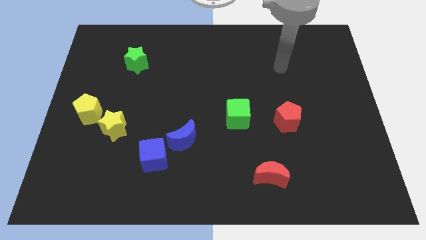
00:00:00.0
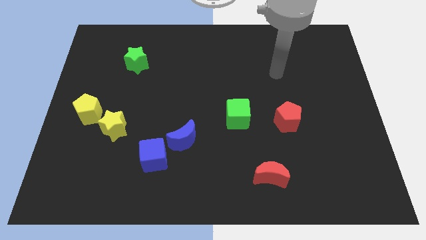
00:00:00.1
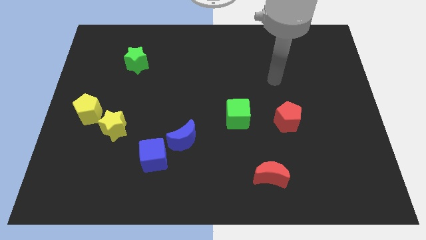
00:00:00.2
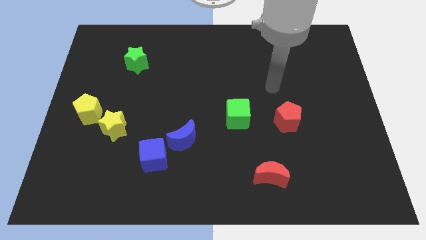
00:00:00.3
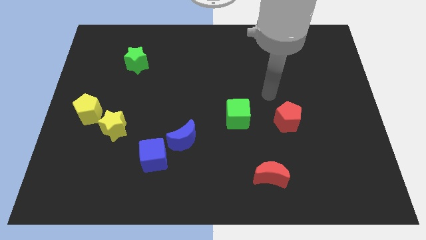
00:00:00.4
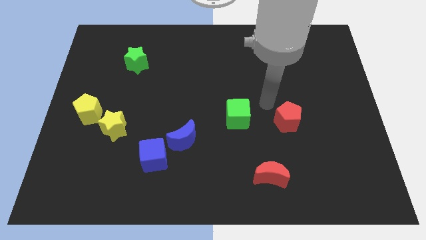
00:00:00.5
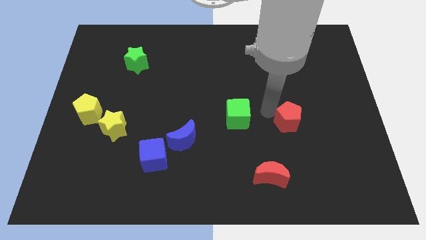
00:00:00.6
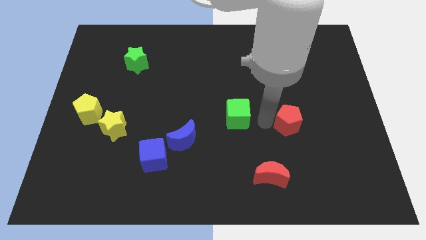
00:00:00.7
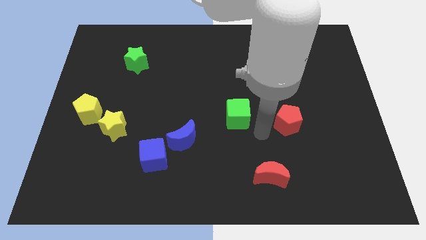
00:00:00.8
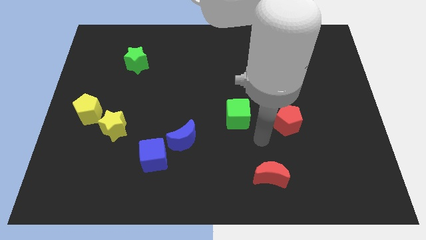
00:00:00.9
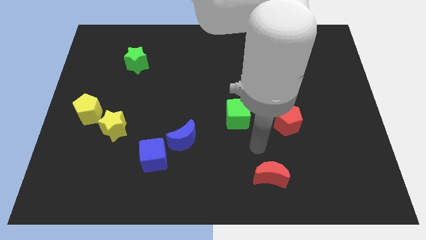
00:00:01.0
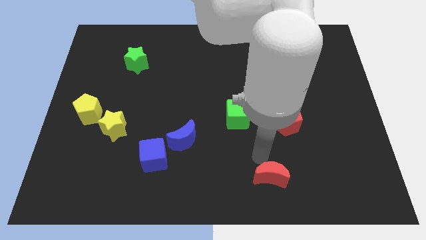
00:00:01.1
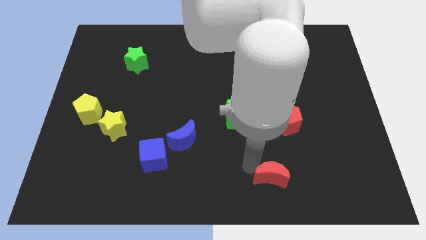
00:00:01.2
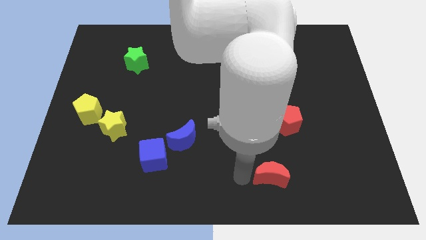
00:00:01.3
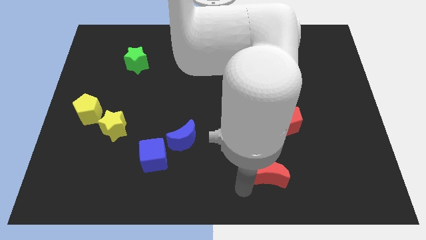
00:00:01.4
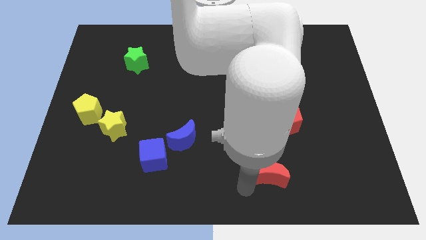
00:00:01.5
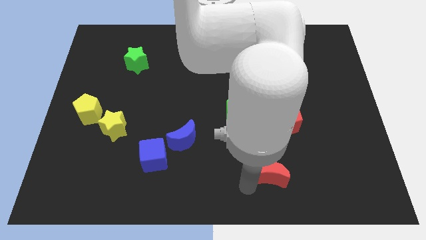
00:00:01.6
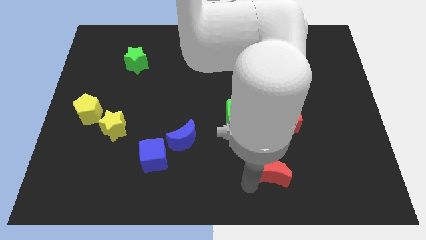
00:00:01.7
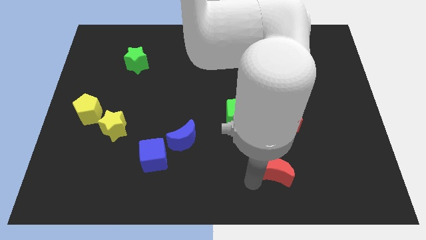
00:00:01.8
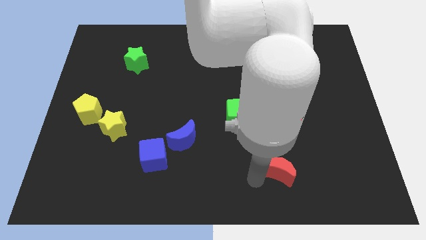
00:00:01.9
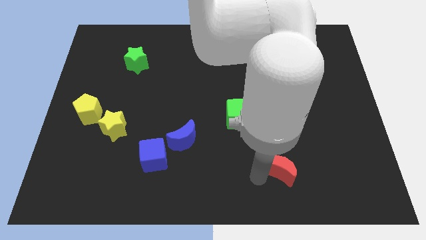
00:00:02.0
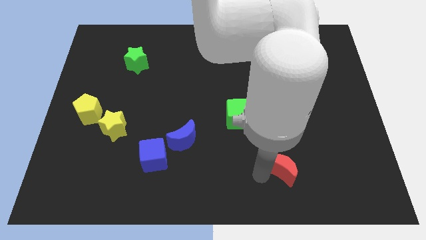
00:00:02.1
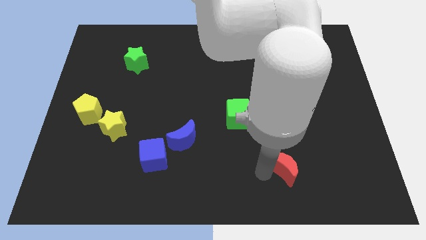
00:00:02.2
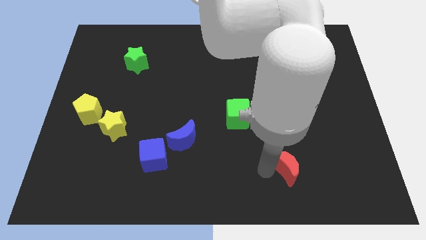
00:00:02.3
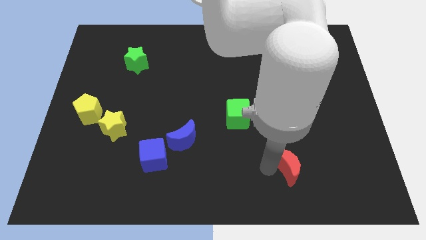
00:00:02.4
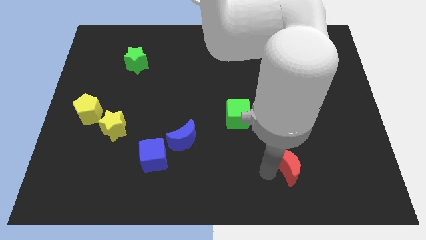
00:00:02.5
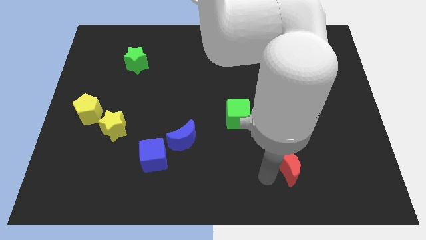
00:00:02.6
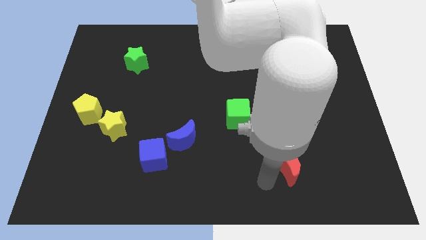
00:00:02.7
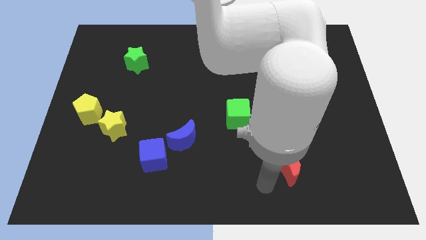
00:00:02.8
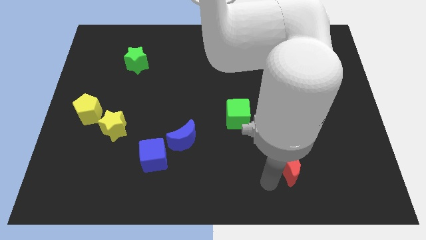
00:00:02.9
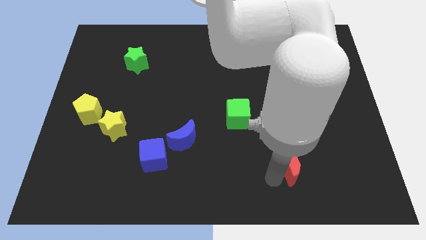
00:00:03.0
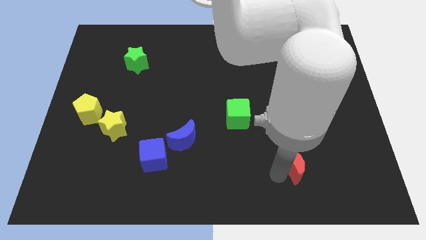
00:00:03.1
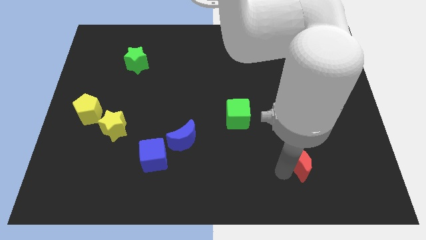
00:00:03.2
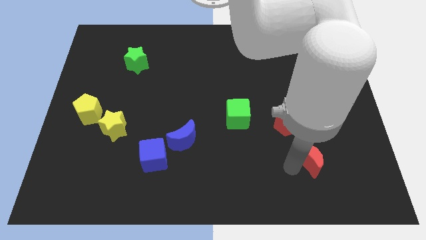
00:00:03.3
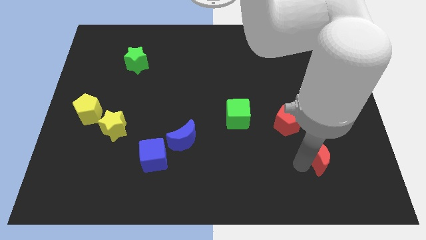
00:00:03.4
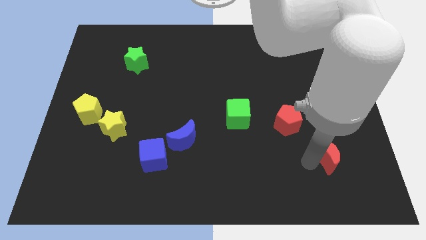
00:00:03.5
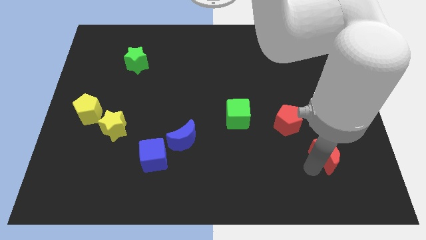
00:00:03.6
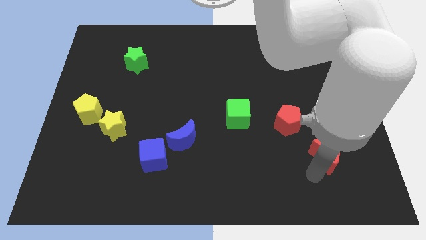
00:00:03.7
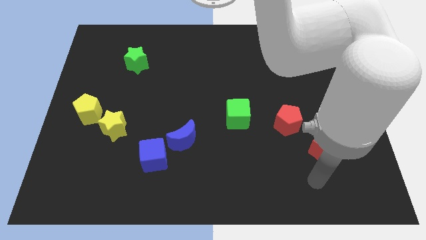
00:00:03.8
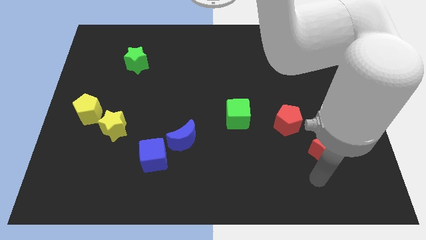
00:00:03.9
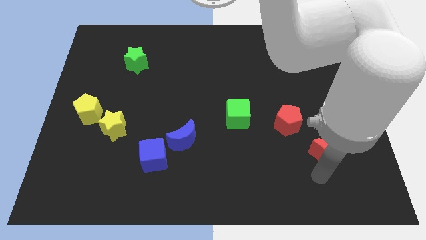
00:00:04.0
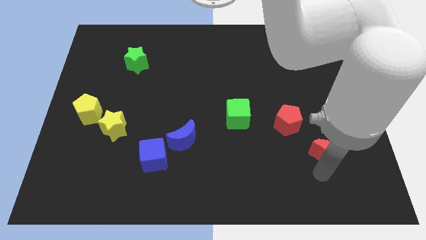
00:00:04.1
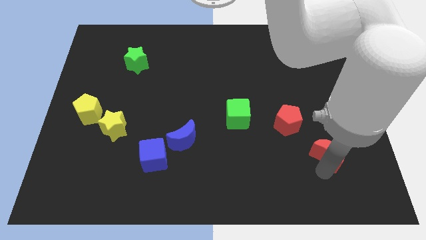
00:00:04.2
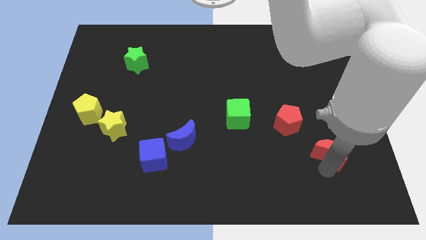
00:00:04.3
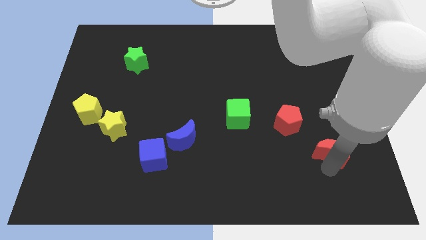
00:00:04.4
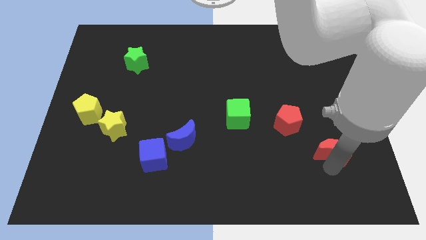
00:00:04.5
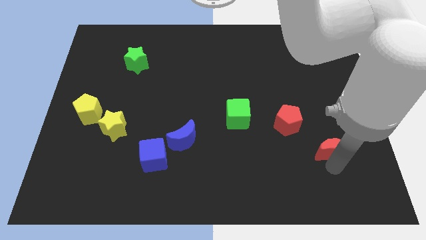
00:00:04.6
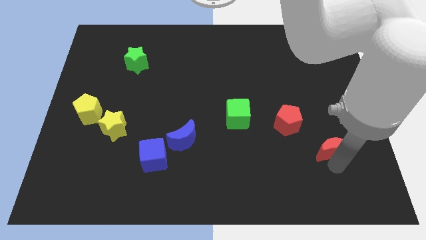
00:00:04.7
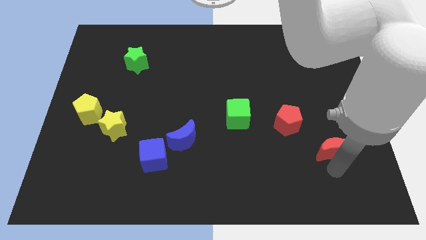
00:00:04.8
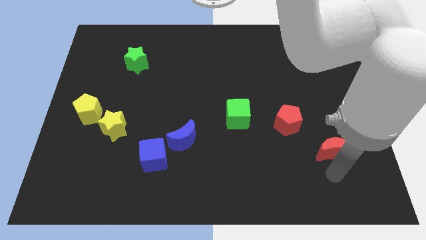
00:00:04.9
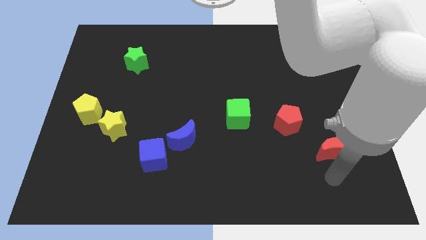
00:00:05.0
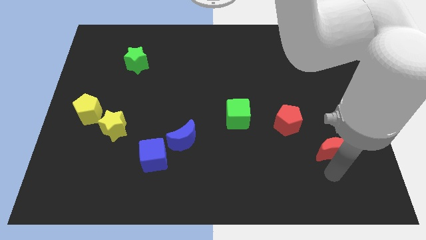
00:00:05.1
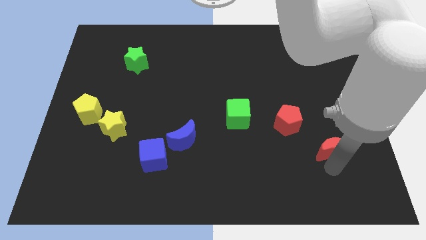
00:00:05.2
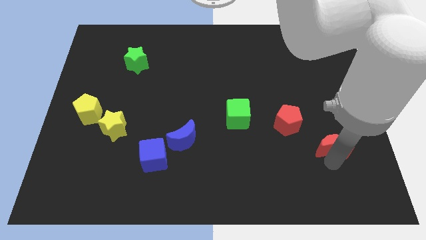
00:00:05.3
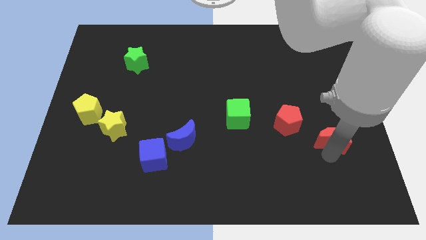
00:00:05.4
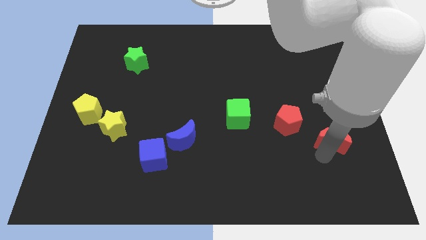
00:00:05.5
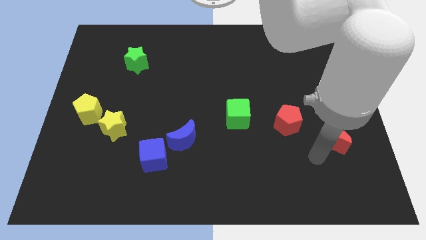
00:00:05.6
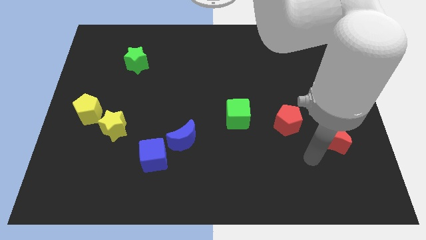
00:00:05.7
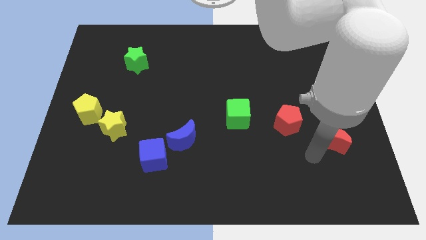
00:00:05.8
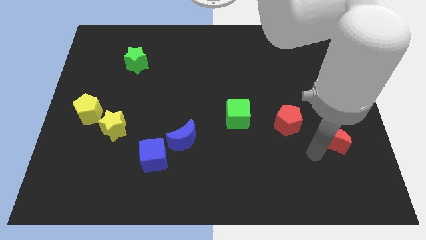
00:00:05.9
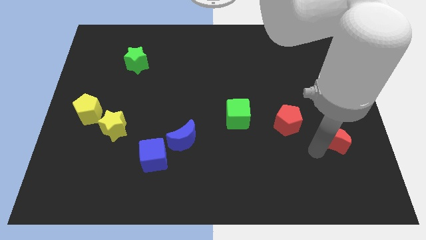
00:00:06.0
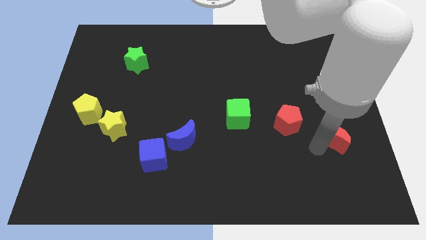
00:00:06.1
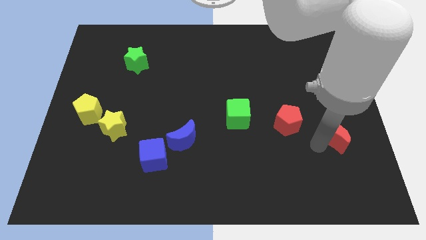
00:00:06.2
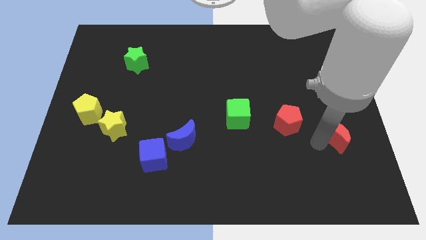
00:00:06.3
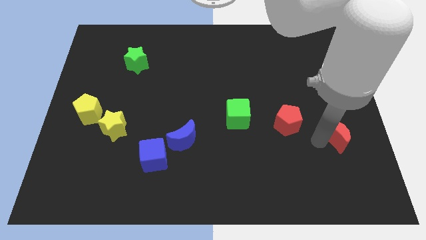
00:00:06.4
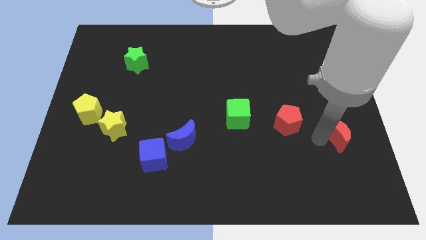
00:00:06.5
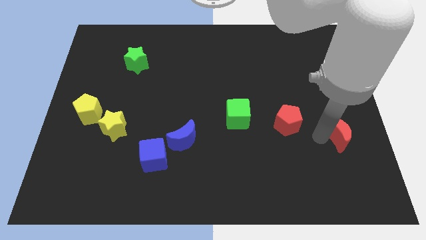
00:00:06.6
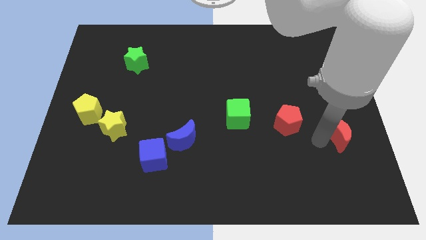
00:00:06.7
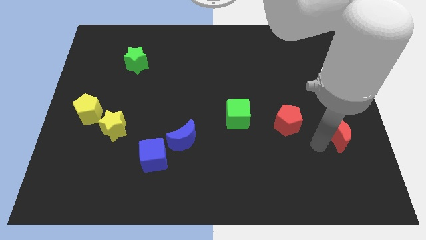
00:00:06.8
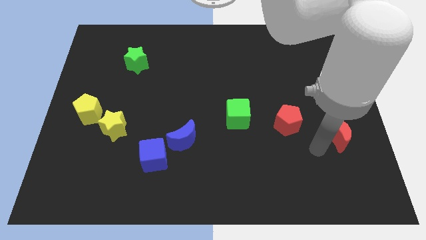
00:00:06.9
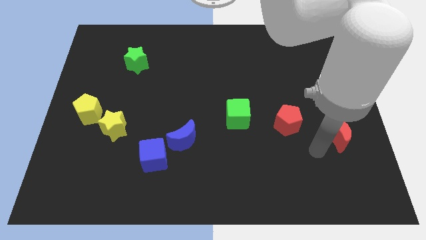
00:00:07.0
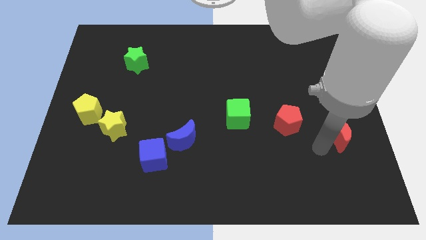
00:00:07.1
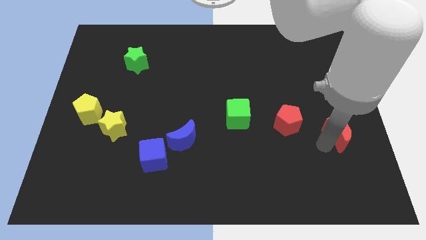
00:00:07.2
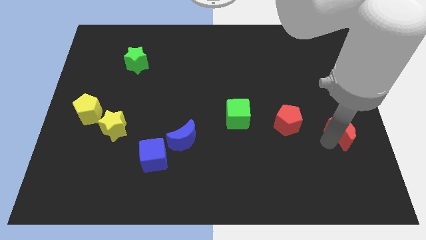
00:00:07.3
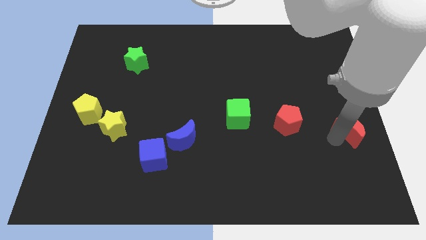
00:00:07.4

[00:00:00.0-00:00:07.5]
move the red moon to the center right
